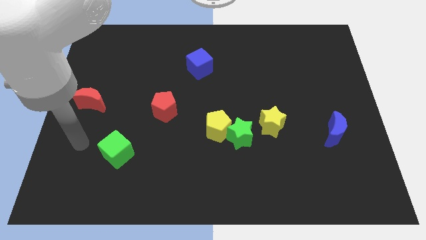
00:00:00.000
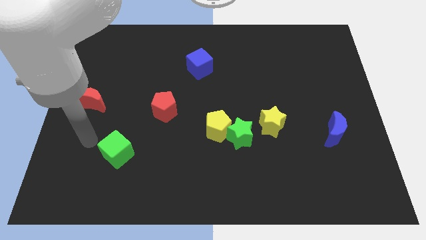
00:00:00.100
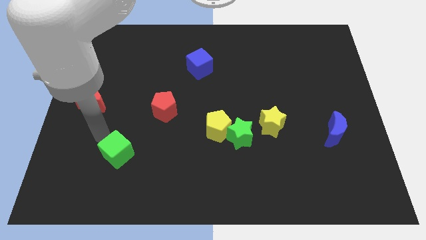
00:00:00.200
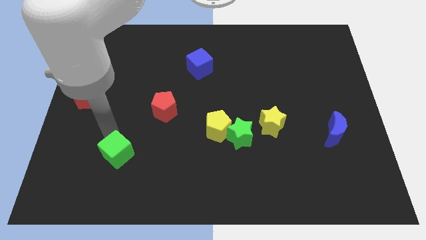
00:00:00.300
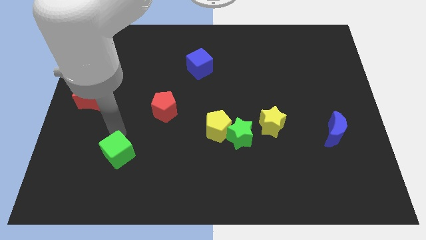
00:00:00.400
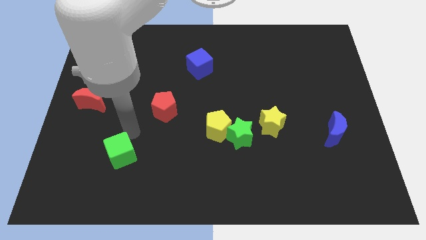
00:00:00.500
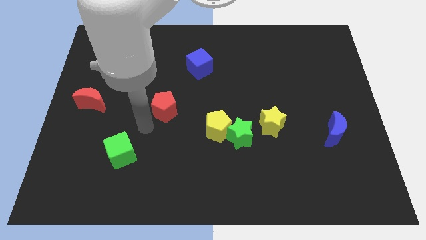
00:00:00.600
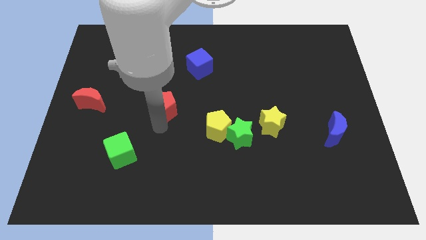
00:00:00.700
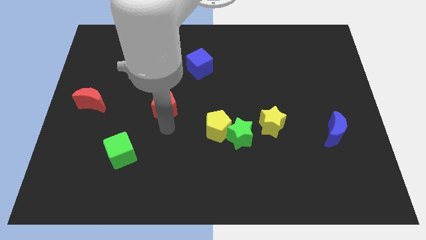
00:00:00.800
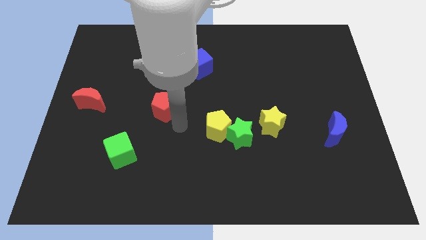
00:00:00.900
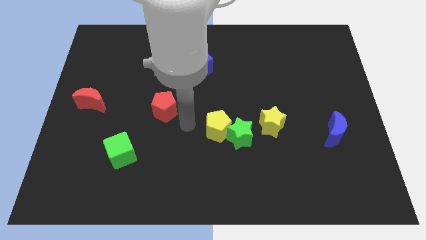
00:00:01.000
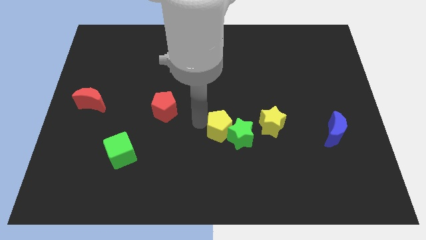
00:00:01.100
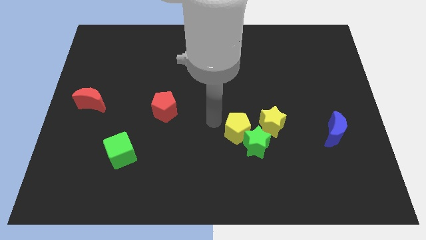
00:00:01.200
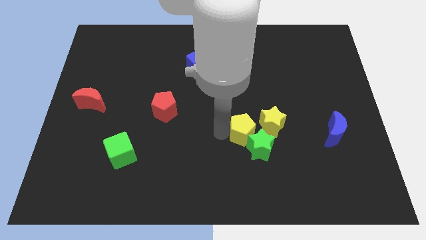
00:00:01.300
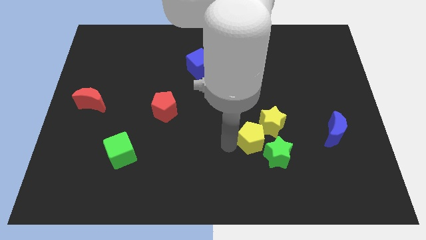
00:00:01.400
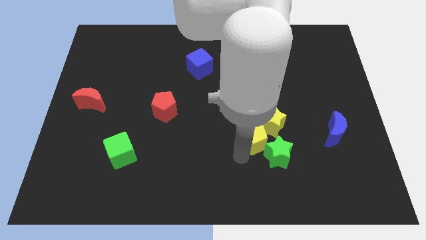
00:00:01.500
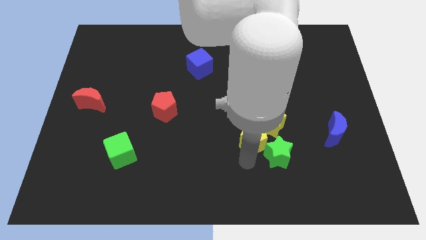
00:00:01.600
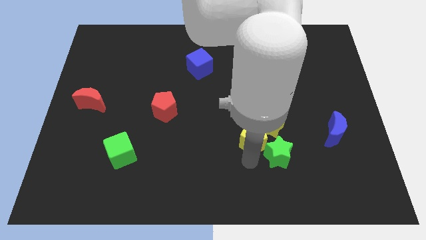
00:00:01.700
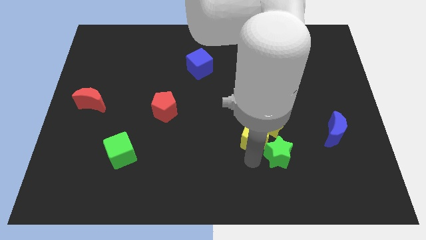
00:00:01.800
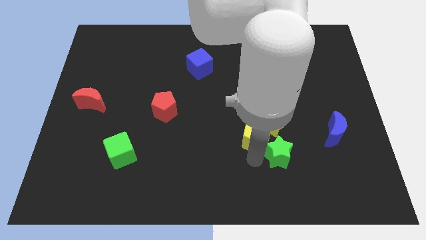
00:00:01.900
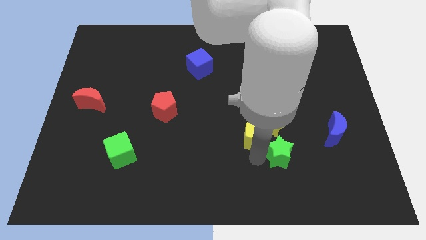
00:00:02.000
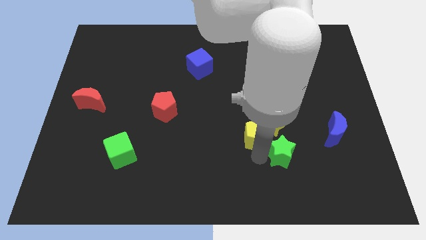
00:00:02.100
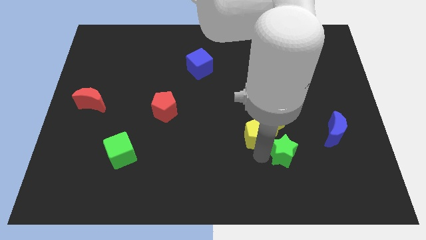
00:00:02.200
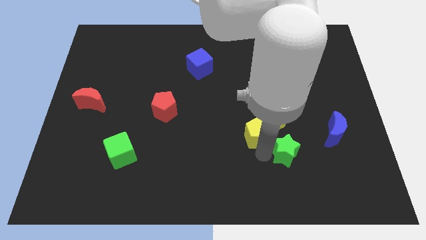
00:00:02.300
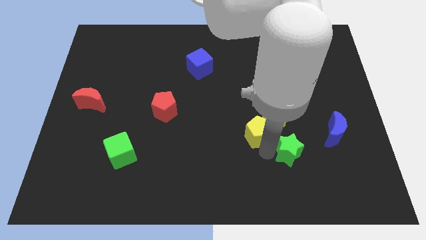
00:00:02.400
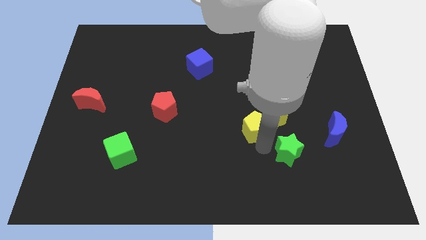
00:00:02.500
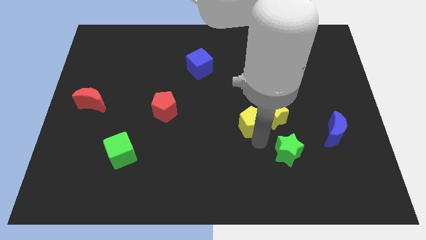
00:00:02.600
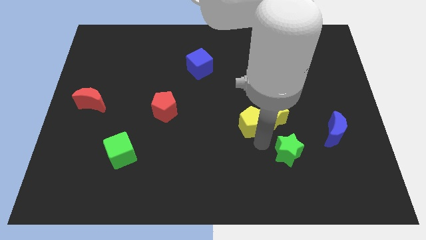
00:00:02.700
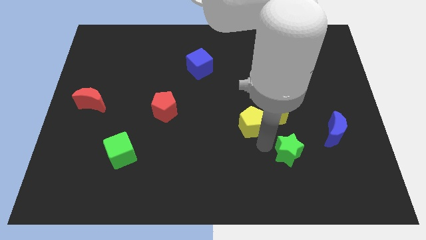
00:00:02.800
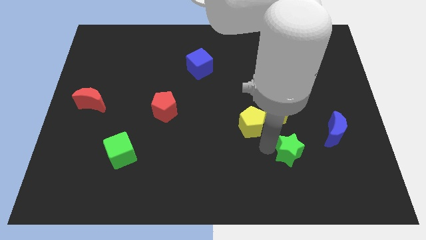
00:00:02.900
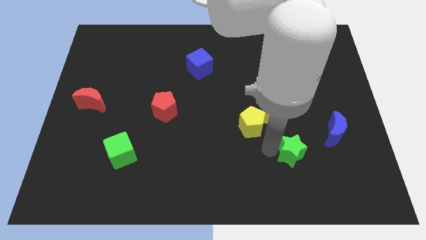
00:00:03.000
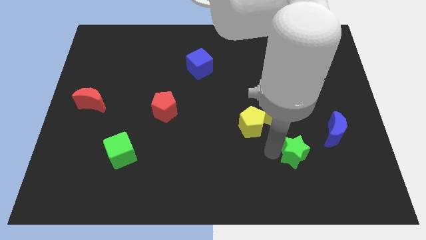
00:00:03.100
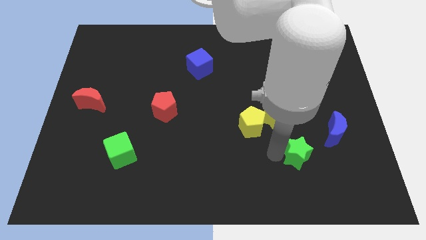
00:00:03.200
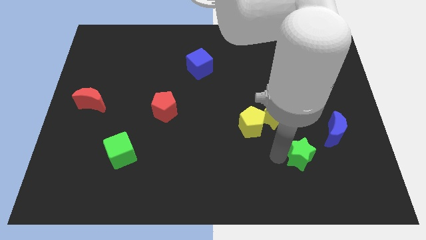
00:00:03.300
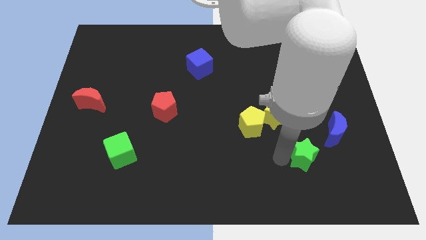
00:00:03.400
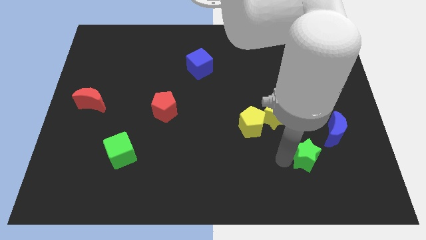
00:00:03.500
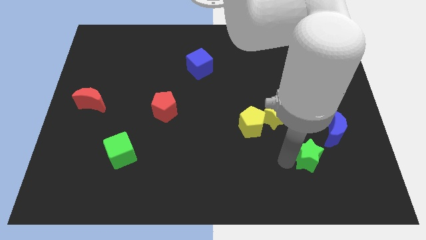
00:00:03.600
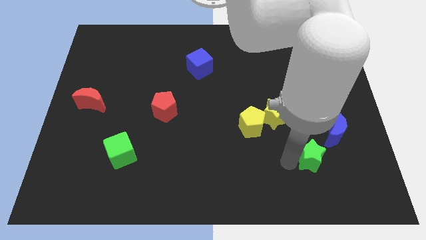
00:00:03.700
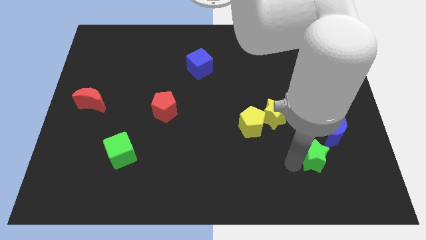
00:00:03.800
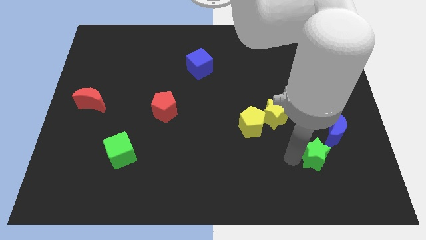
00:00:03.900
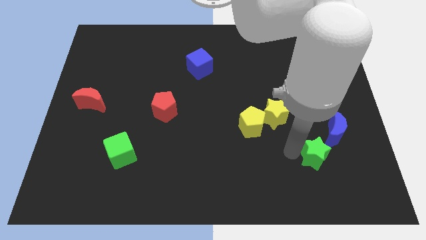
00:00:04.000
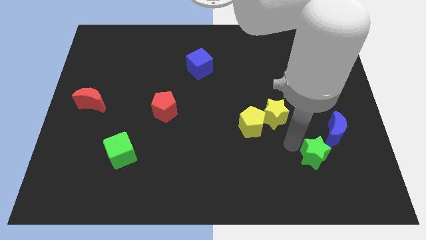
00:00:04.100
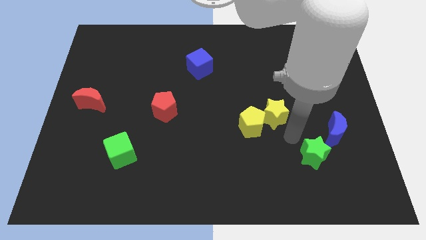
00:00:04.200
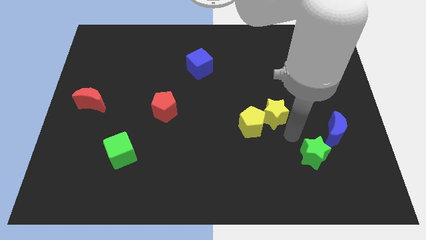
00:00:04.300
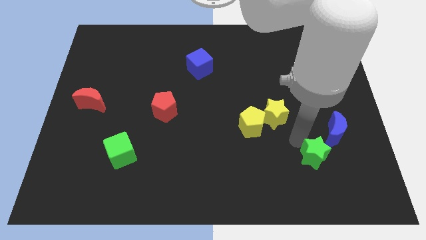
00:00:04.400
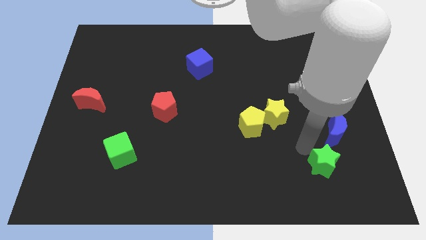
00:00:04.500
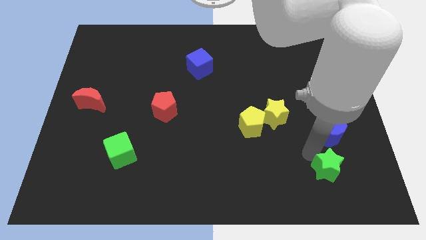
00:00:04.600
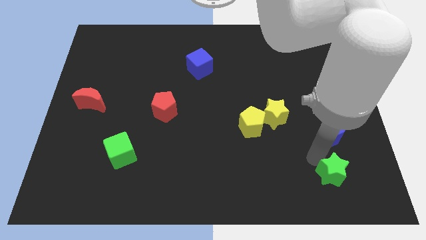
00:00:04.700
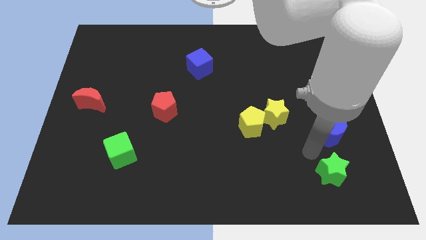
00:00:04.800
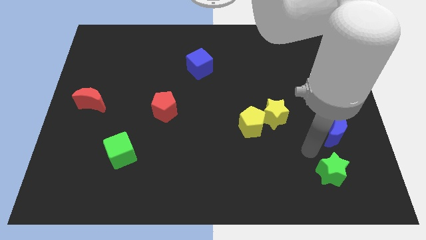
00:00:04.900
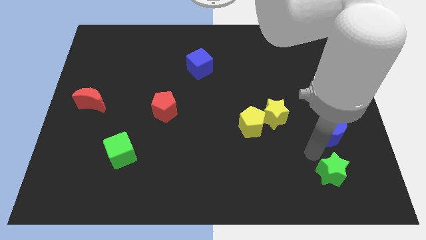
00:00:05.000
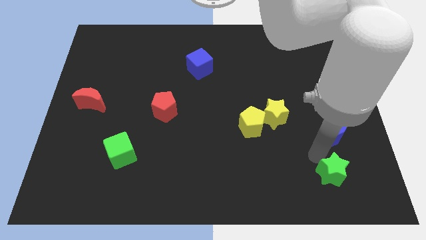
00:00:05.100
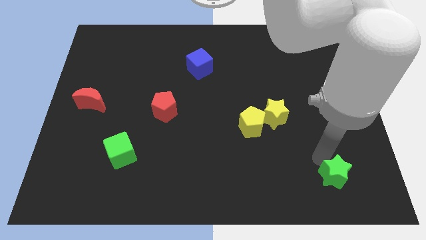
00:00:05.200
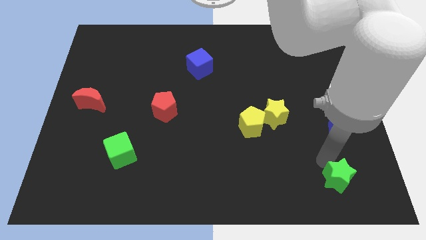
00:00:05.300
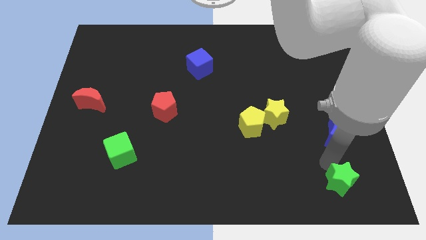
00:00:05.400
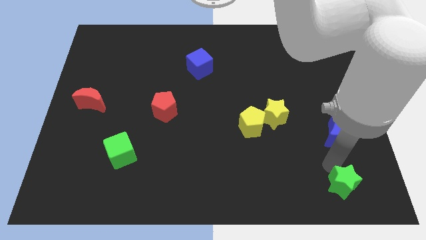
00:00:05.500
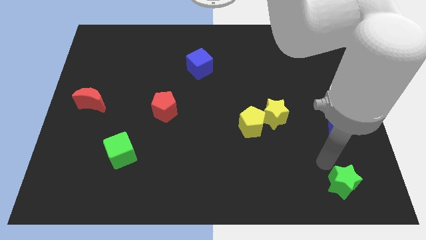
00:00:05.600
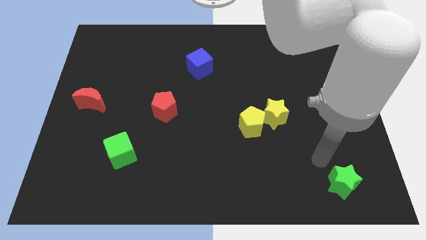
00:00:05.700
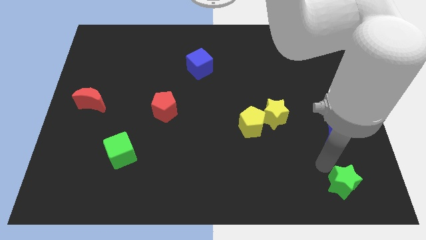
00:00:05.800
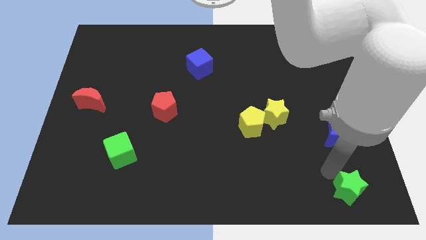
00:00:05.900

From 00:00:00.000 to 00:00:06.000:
push the green star to the bottom right

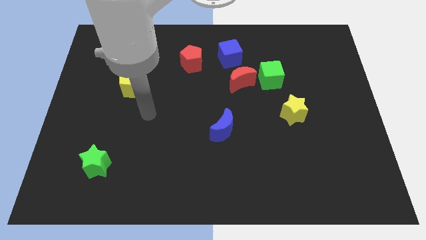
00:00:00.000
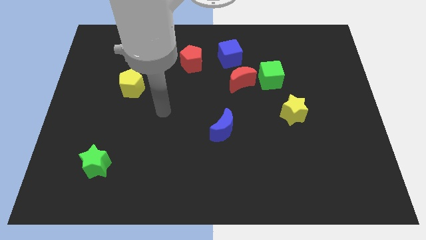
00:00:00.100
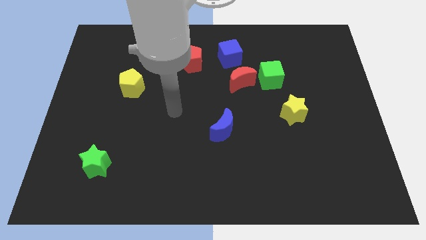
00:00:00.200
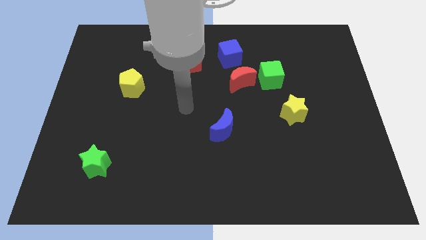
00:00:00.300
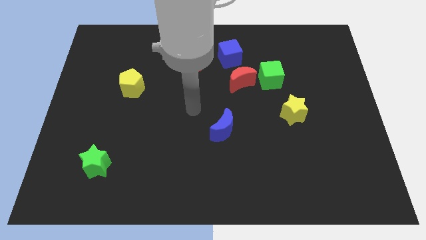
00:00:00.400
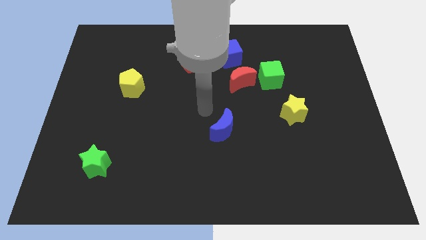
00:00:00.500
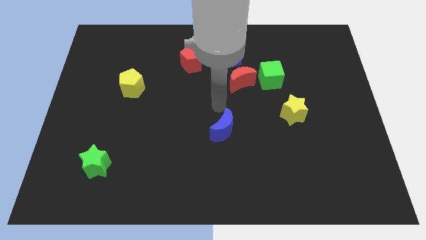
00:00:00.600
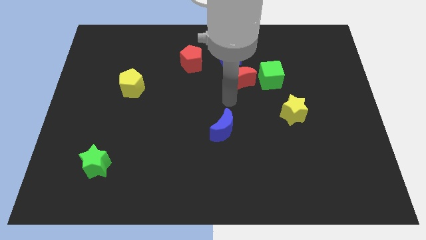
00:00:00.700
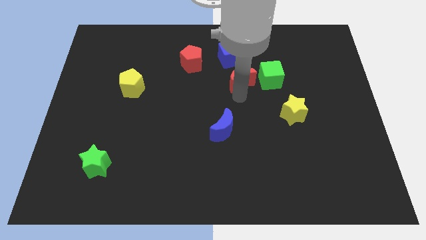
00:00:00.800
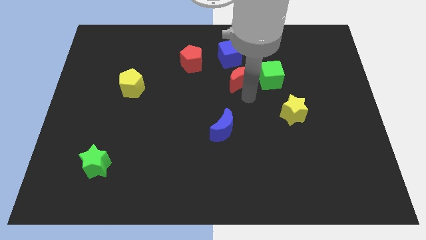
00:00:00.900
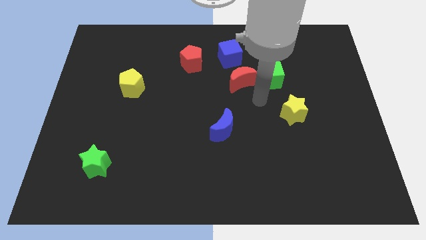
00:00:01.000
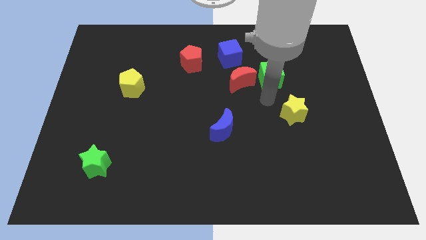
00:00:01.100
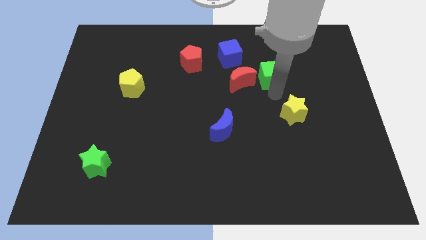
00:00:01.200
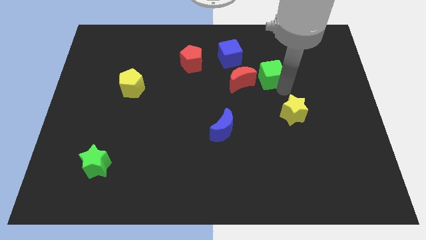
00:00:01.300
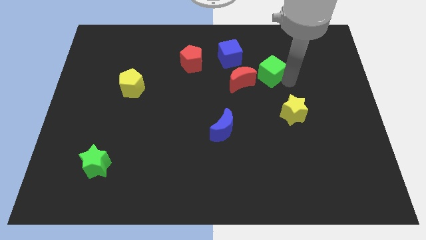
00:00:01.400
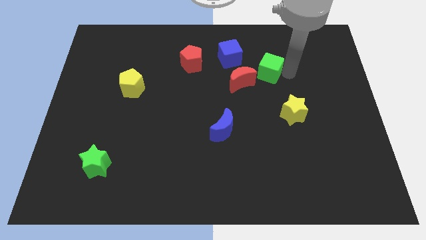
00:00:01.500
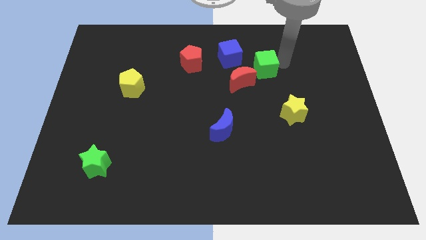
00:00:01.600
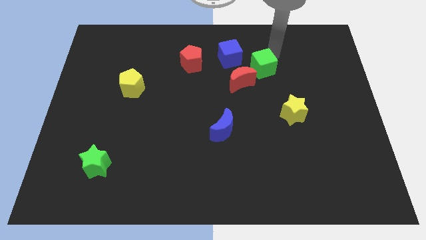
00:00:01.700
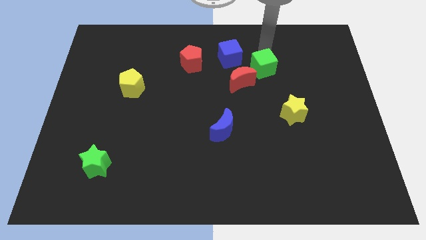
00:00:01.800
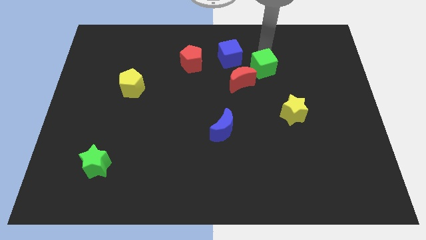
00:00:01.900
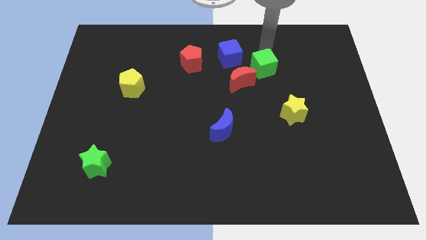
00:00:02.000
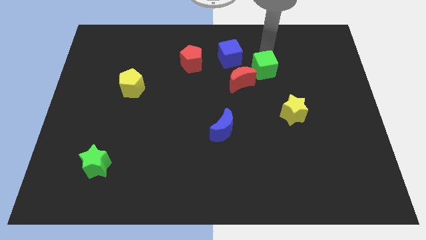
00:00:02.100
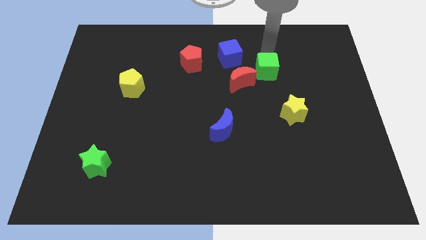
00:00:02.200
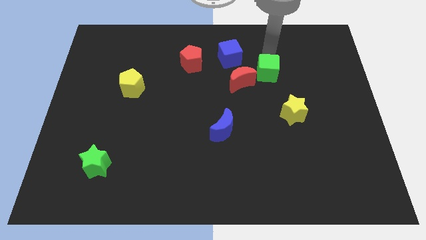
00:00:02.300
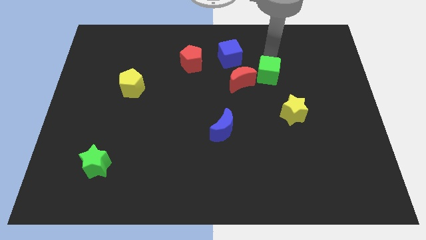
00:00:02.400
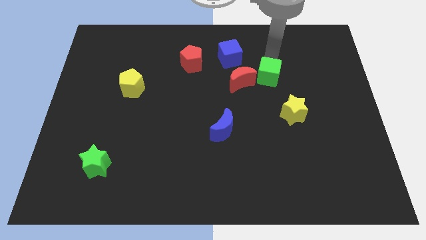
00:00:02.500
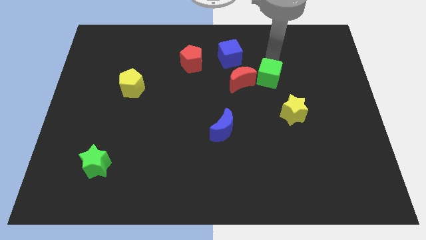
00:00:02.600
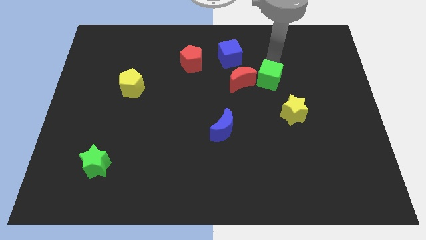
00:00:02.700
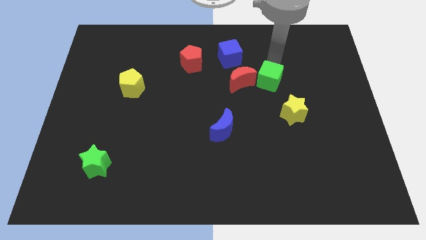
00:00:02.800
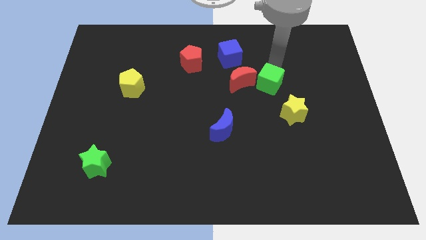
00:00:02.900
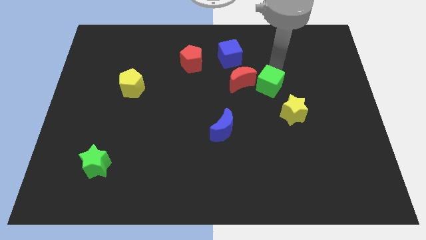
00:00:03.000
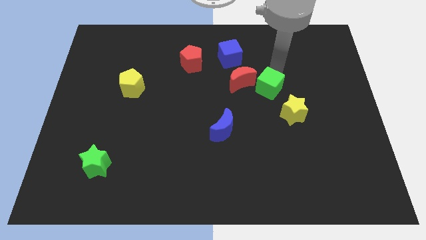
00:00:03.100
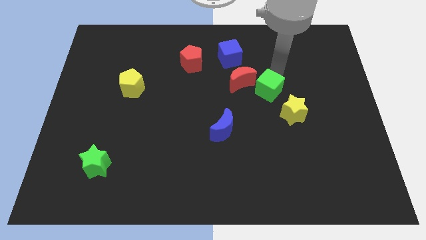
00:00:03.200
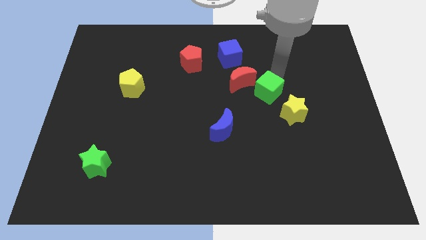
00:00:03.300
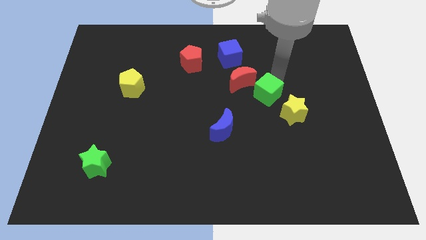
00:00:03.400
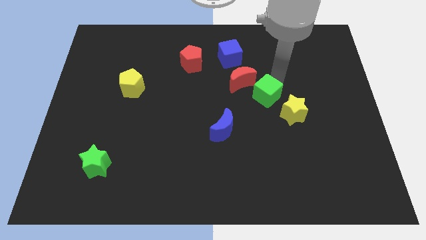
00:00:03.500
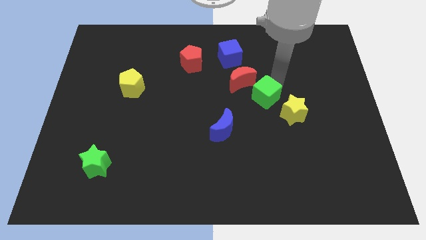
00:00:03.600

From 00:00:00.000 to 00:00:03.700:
slide the green cube to the middle
